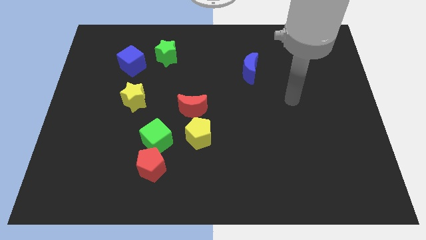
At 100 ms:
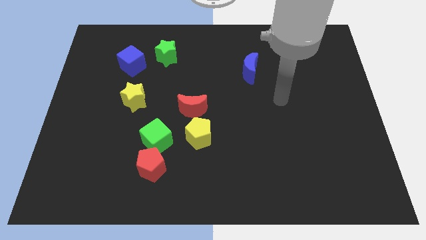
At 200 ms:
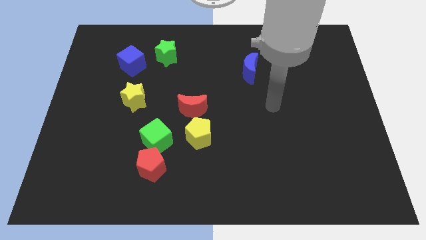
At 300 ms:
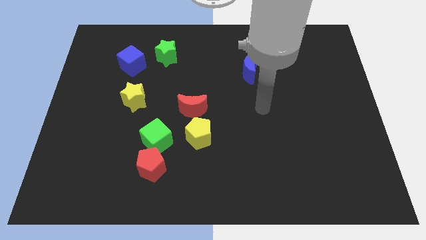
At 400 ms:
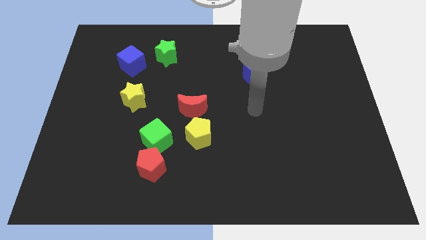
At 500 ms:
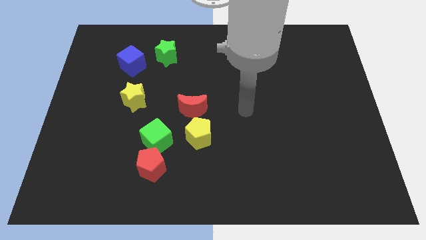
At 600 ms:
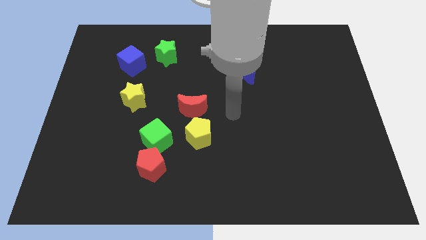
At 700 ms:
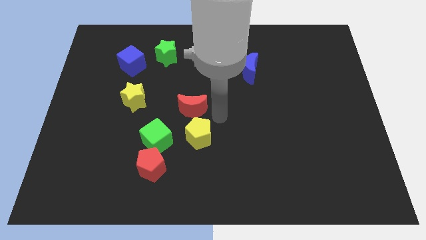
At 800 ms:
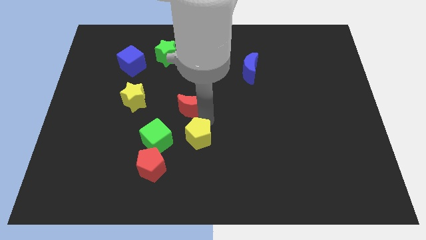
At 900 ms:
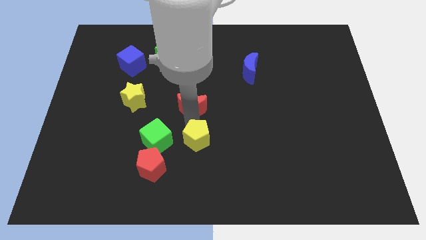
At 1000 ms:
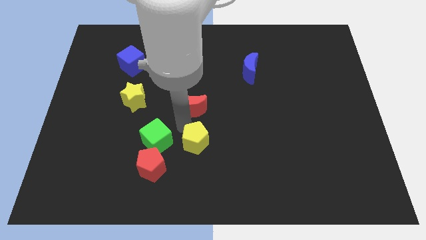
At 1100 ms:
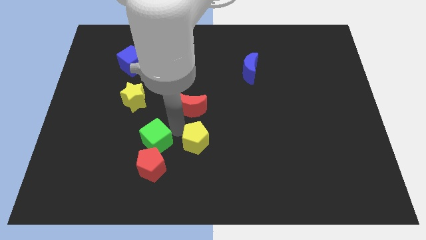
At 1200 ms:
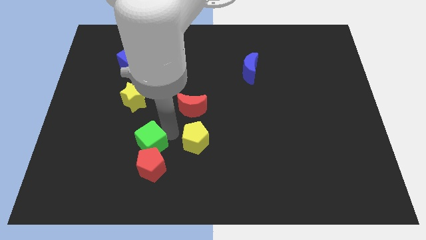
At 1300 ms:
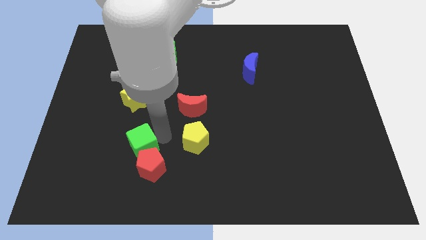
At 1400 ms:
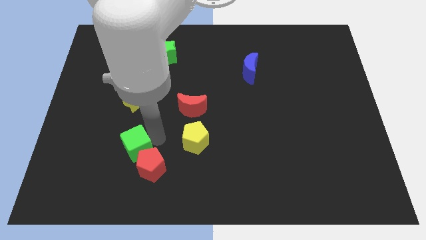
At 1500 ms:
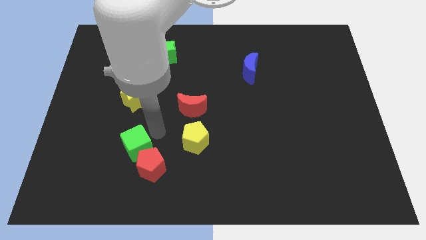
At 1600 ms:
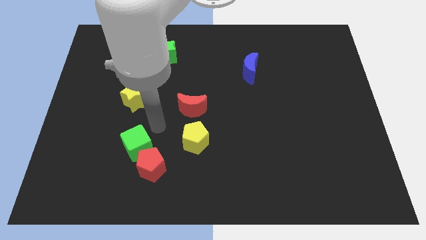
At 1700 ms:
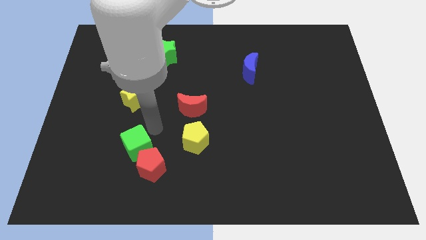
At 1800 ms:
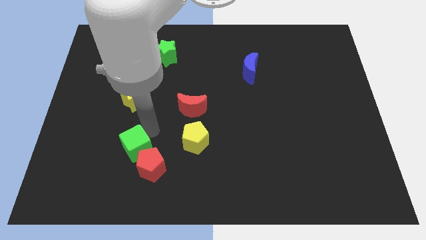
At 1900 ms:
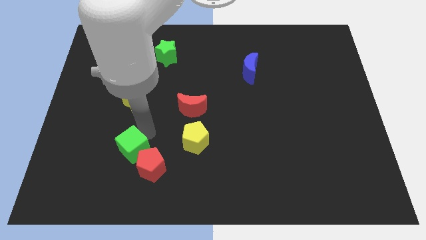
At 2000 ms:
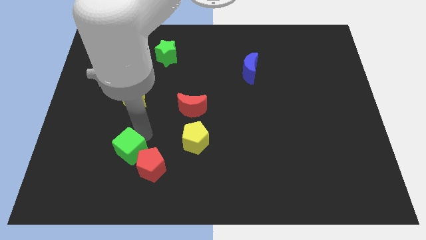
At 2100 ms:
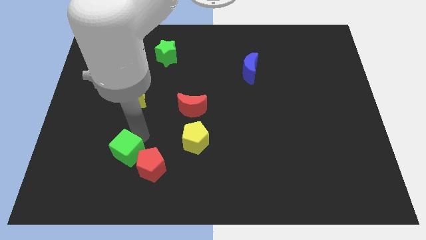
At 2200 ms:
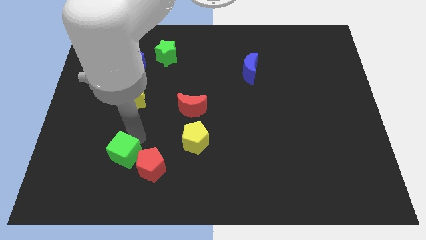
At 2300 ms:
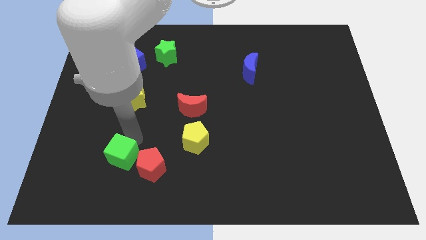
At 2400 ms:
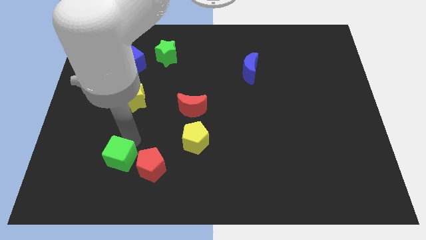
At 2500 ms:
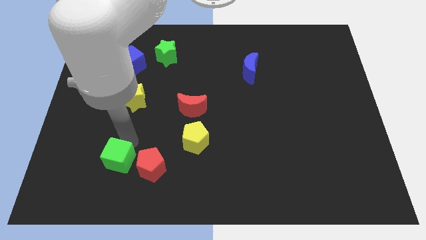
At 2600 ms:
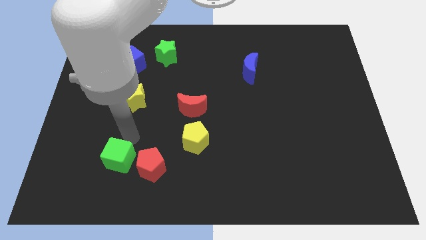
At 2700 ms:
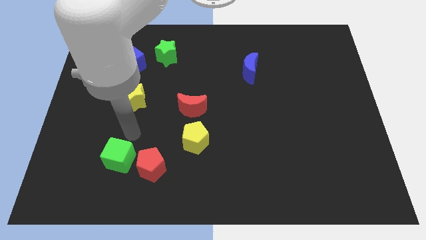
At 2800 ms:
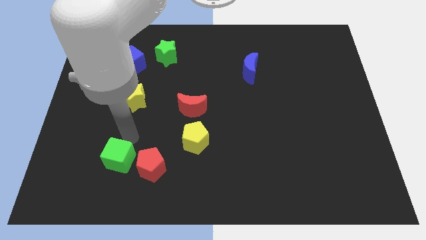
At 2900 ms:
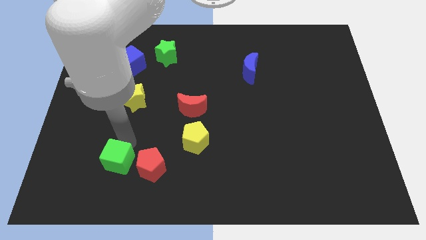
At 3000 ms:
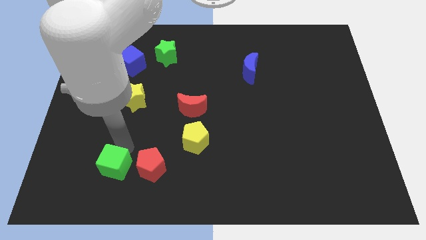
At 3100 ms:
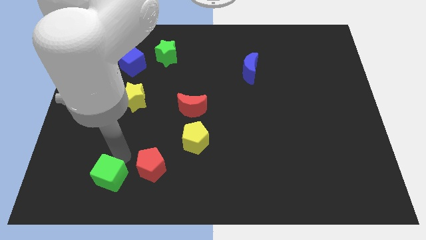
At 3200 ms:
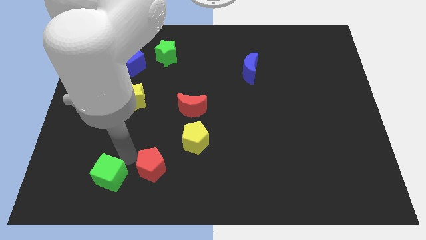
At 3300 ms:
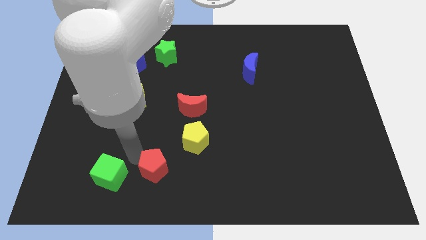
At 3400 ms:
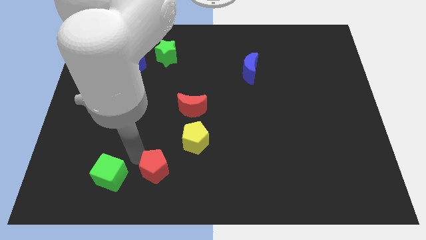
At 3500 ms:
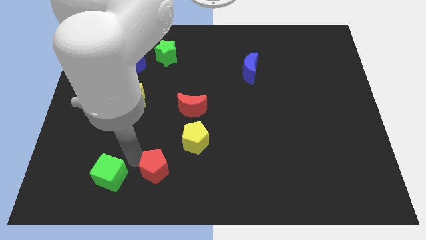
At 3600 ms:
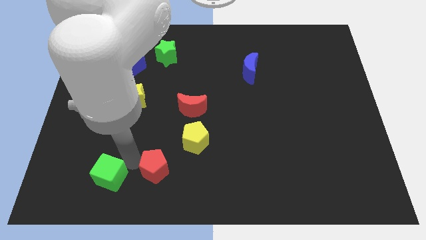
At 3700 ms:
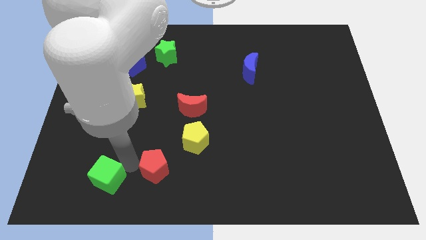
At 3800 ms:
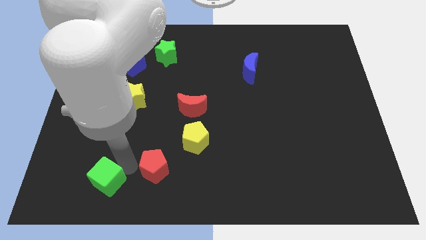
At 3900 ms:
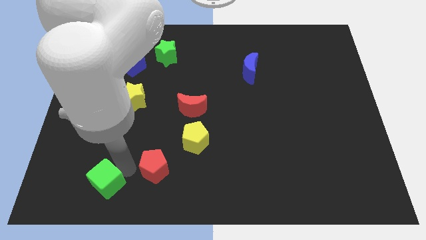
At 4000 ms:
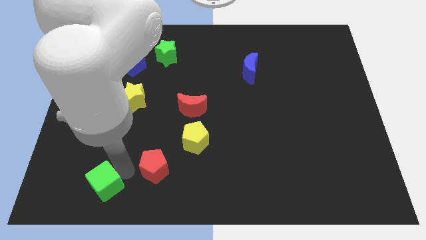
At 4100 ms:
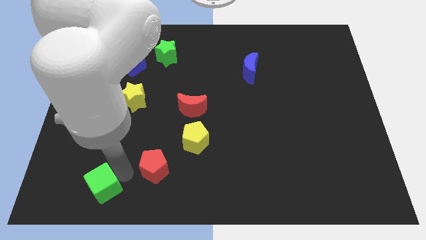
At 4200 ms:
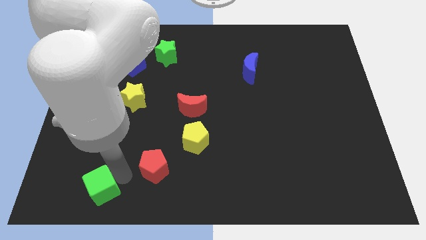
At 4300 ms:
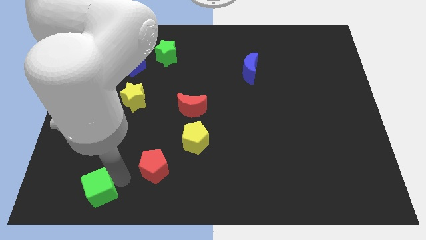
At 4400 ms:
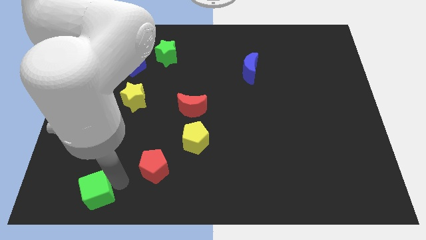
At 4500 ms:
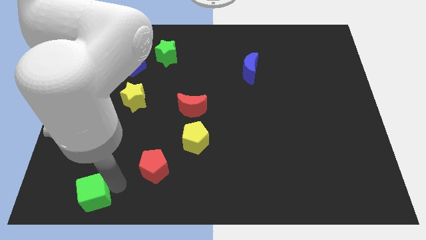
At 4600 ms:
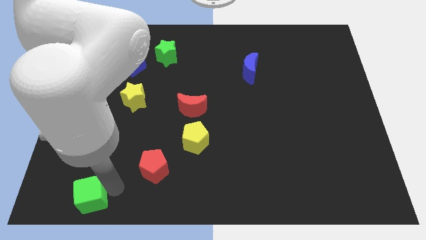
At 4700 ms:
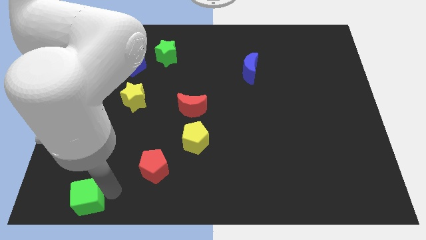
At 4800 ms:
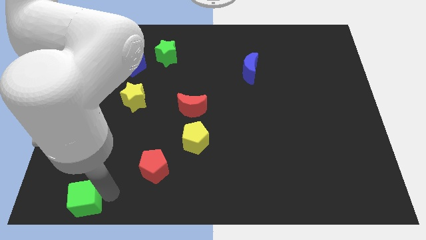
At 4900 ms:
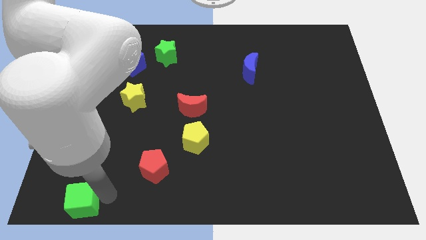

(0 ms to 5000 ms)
push the green cube to the bottom left corner

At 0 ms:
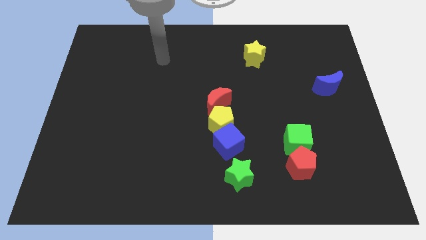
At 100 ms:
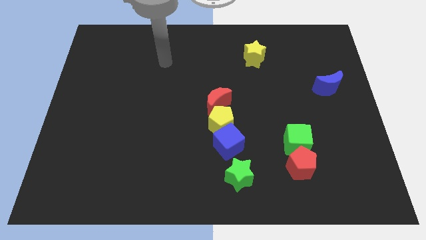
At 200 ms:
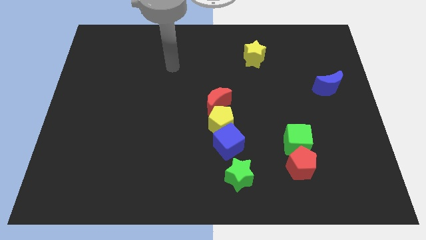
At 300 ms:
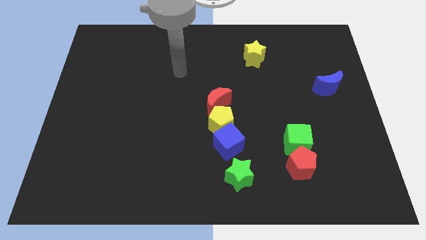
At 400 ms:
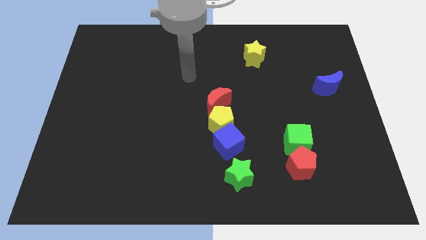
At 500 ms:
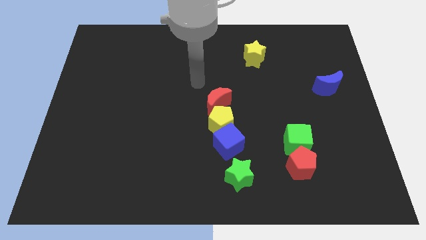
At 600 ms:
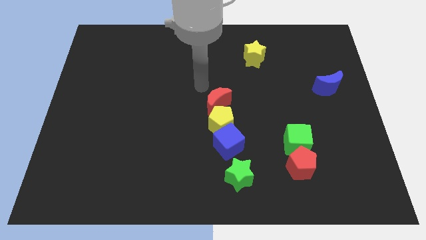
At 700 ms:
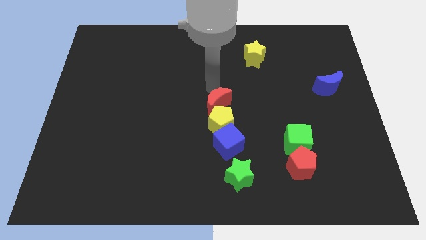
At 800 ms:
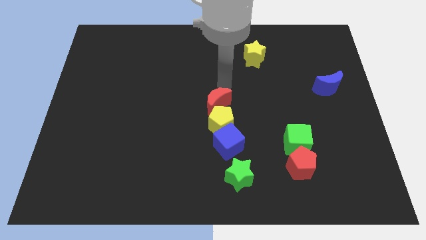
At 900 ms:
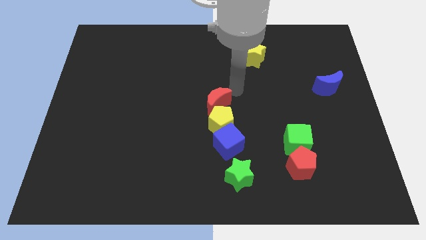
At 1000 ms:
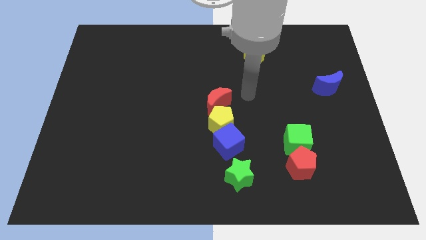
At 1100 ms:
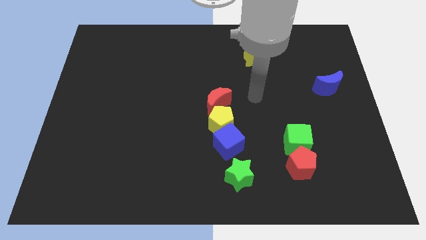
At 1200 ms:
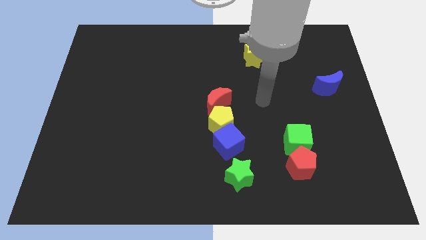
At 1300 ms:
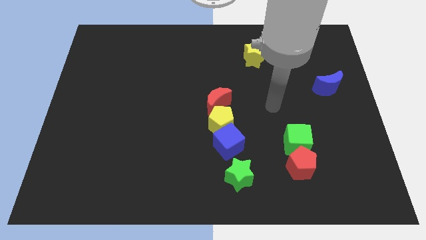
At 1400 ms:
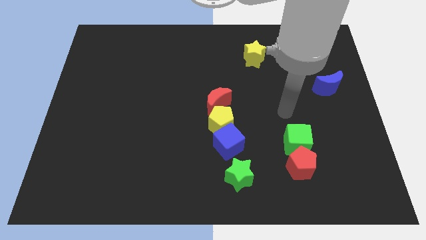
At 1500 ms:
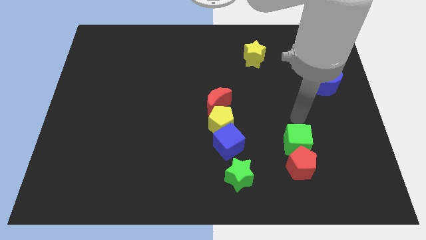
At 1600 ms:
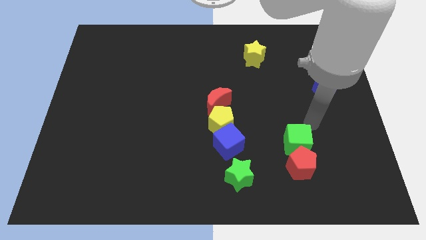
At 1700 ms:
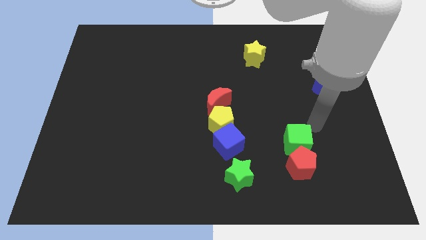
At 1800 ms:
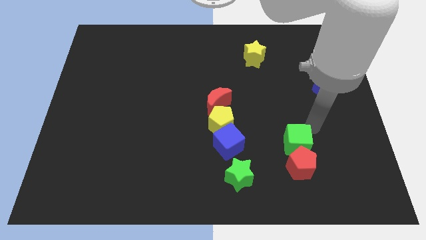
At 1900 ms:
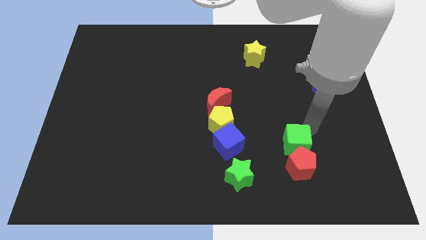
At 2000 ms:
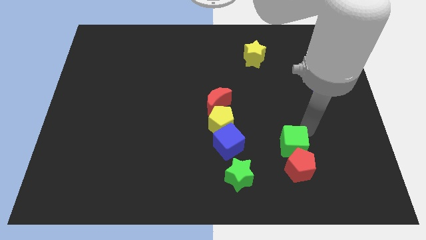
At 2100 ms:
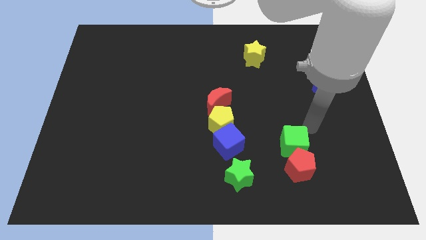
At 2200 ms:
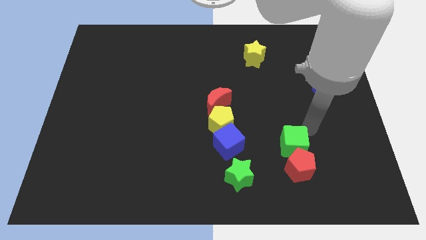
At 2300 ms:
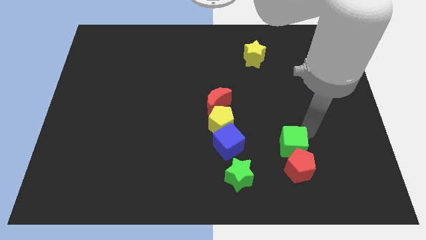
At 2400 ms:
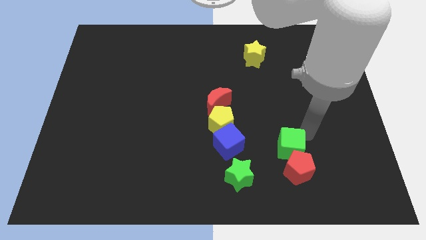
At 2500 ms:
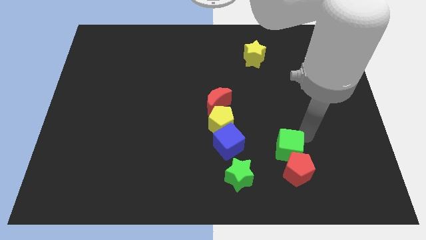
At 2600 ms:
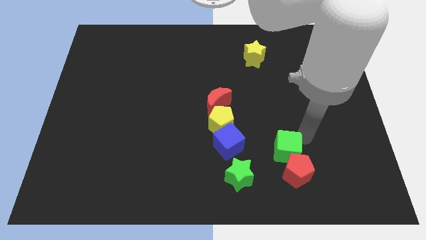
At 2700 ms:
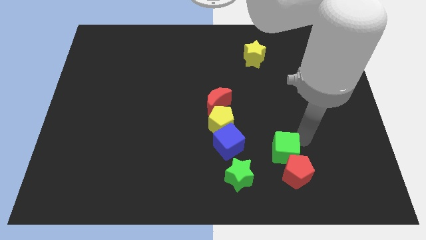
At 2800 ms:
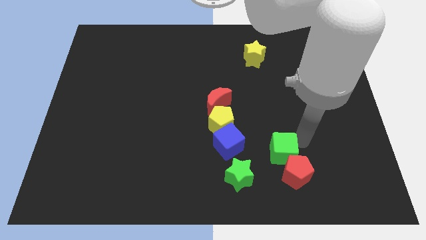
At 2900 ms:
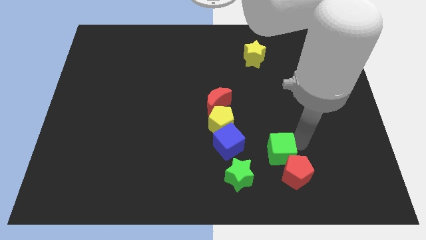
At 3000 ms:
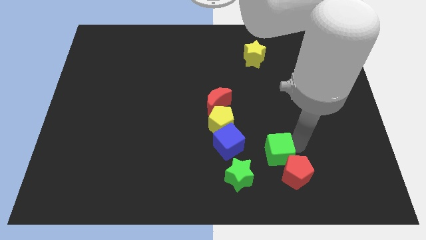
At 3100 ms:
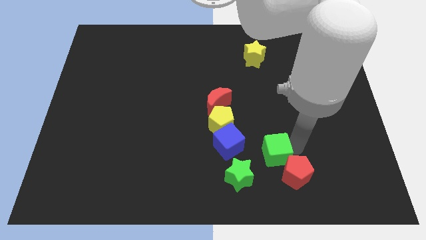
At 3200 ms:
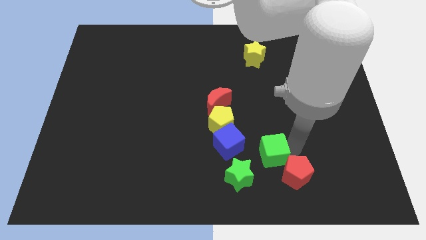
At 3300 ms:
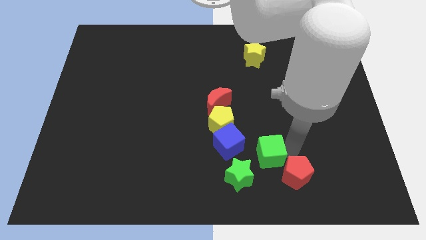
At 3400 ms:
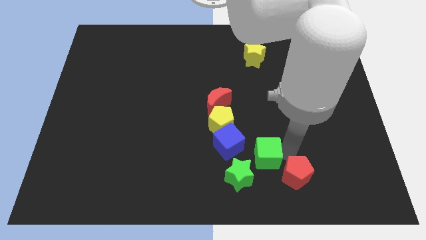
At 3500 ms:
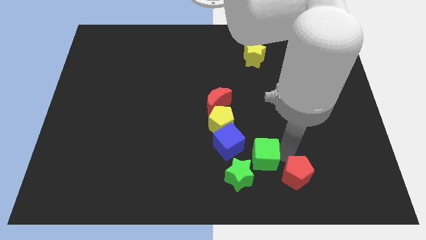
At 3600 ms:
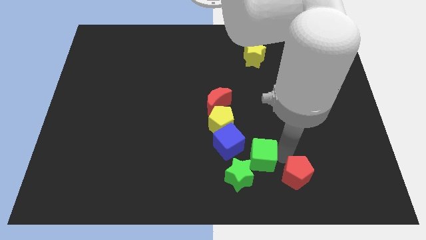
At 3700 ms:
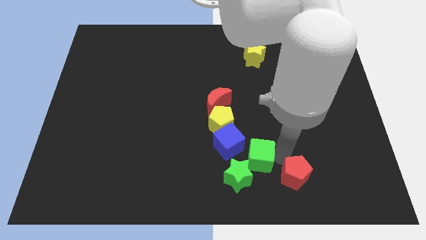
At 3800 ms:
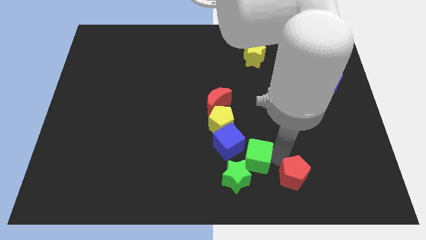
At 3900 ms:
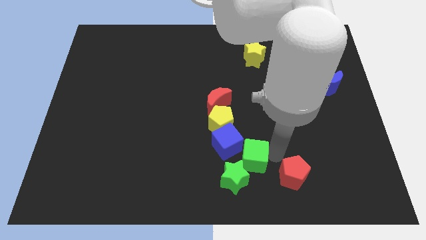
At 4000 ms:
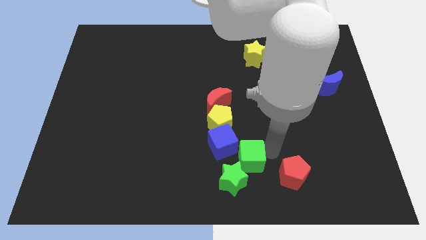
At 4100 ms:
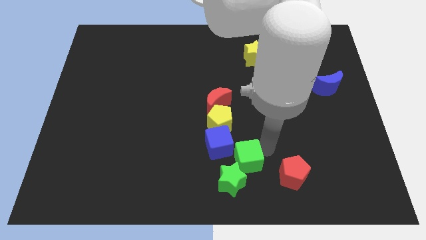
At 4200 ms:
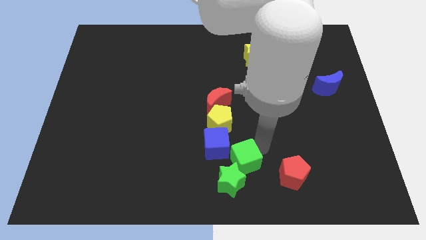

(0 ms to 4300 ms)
push the green cube to the bottom
